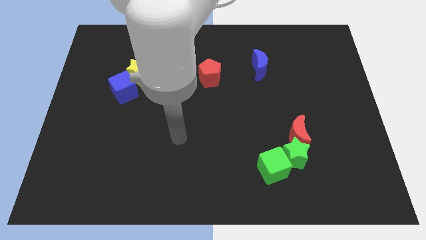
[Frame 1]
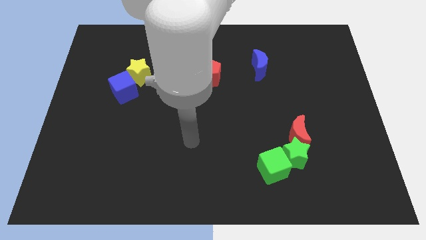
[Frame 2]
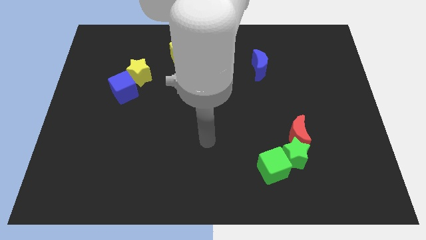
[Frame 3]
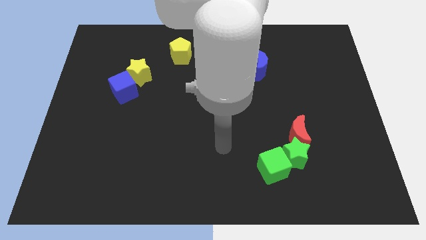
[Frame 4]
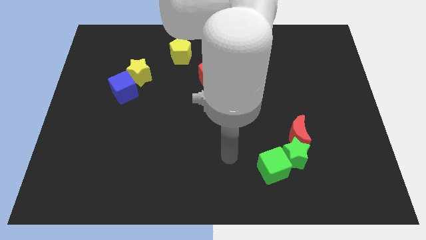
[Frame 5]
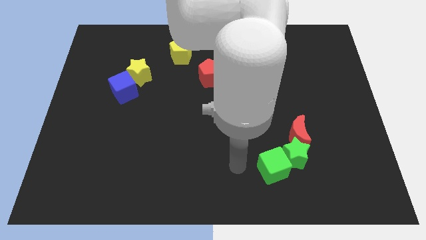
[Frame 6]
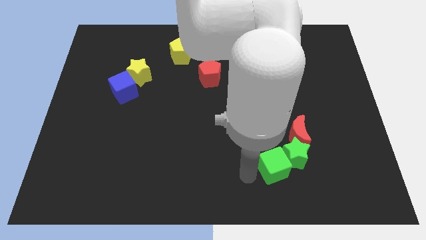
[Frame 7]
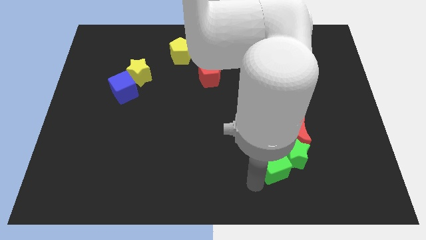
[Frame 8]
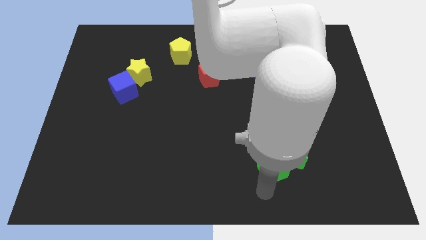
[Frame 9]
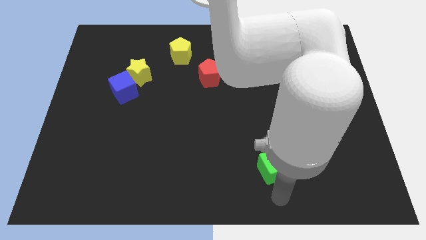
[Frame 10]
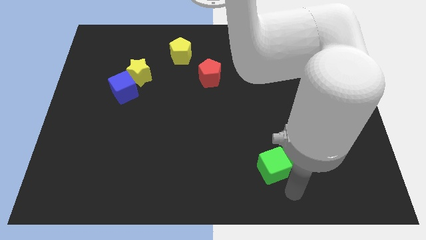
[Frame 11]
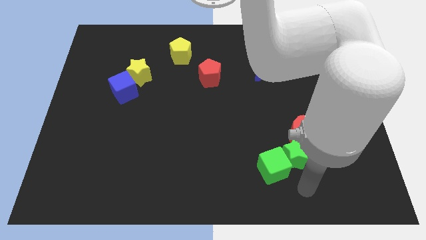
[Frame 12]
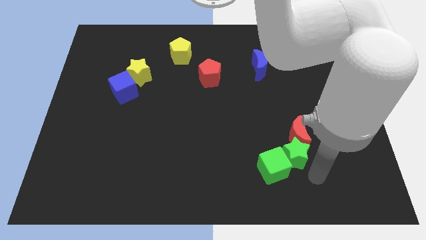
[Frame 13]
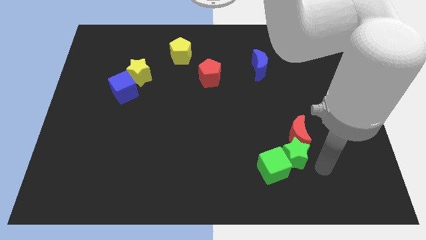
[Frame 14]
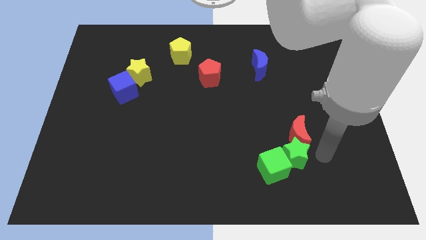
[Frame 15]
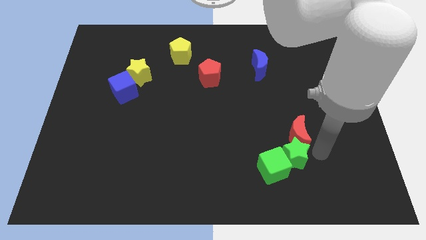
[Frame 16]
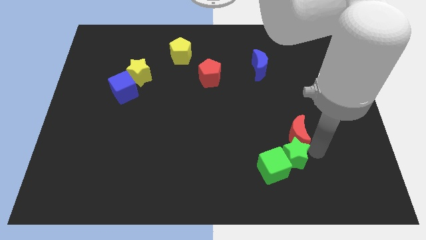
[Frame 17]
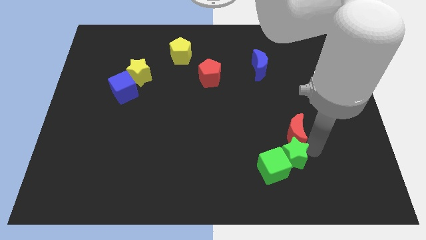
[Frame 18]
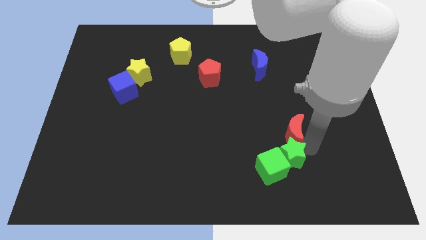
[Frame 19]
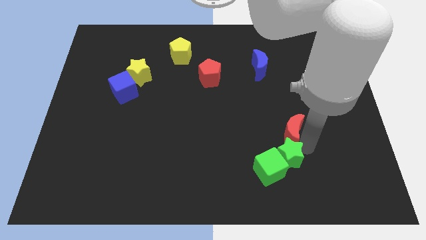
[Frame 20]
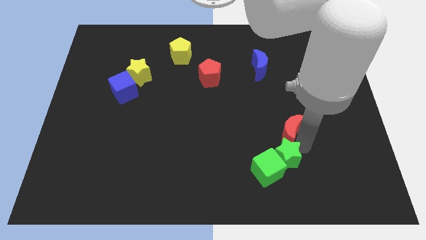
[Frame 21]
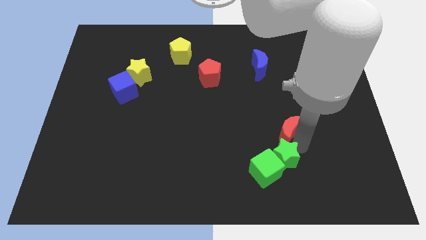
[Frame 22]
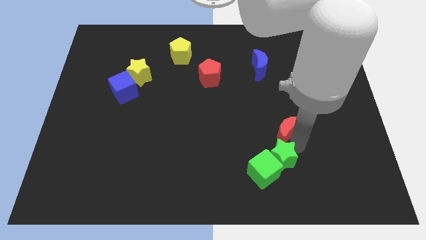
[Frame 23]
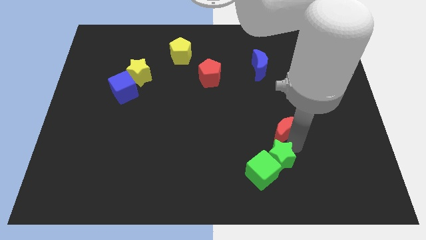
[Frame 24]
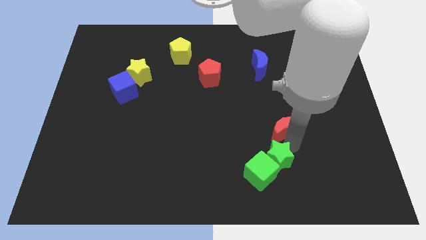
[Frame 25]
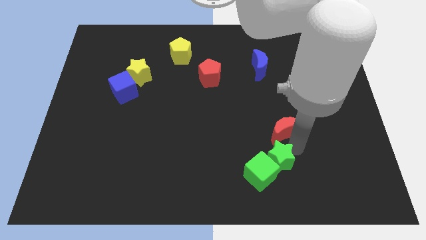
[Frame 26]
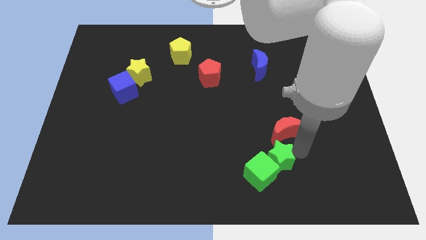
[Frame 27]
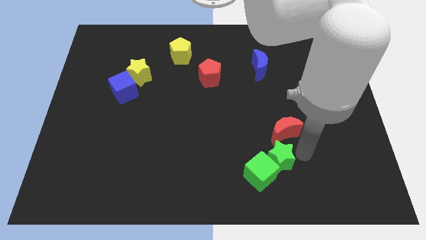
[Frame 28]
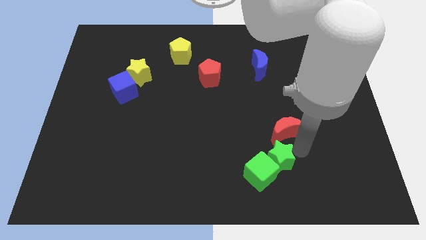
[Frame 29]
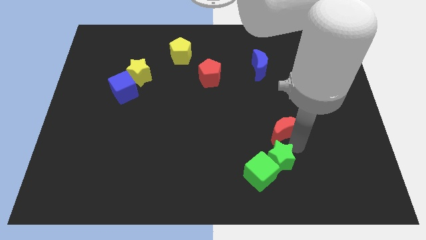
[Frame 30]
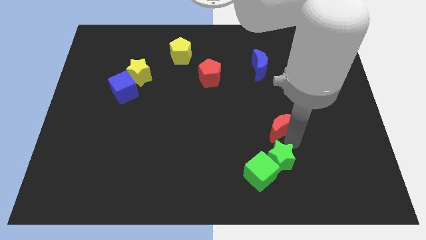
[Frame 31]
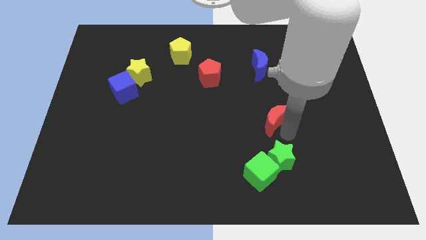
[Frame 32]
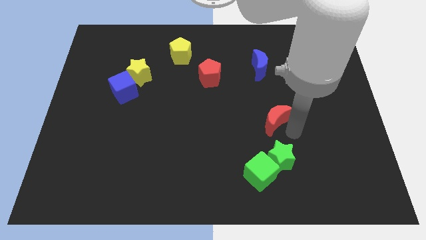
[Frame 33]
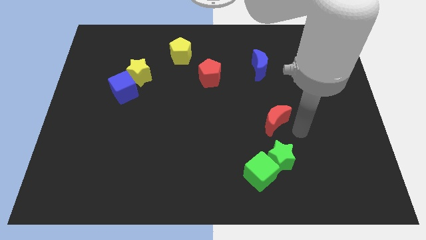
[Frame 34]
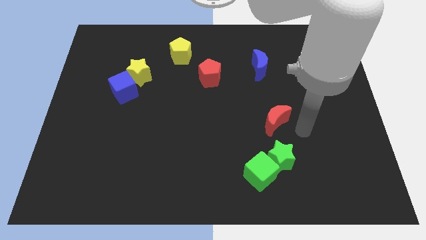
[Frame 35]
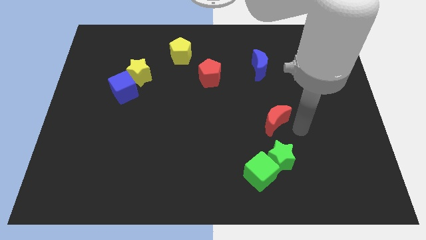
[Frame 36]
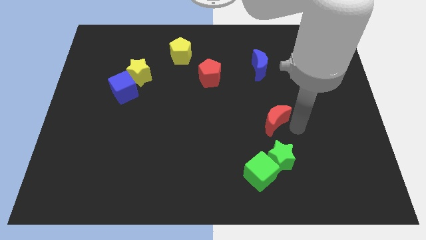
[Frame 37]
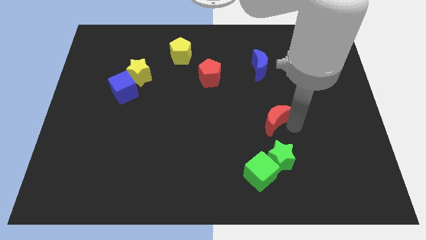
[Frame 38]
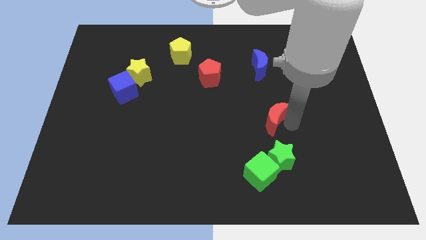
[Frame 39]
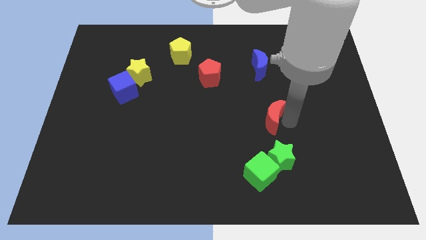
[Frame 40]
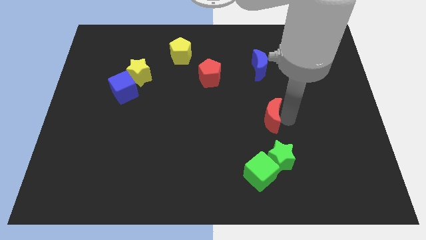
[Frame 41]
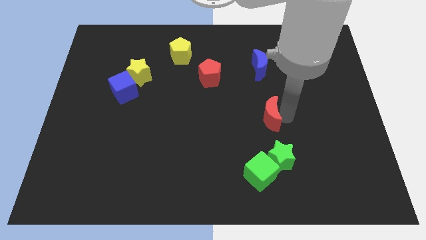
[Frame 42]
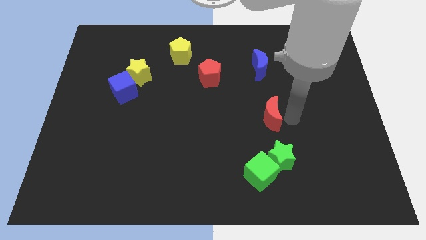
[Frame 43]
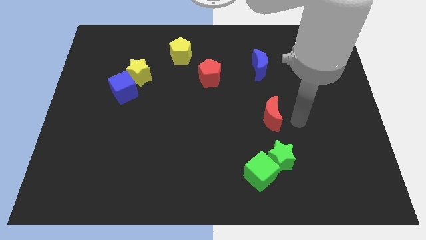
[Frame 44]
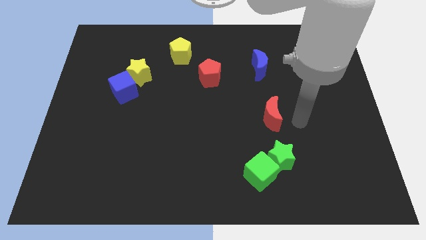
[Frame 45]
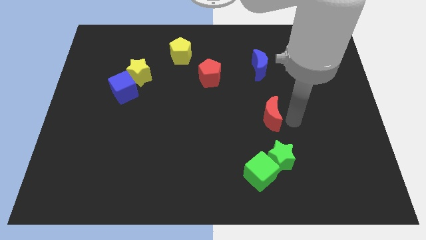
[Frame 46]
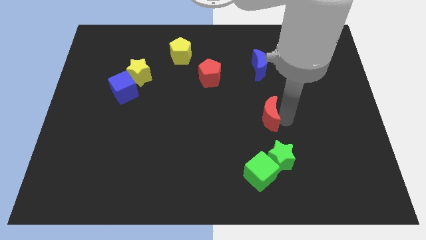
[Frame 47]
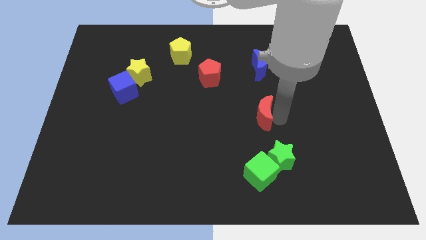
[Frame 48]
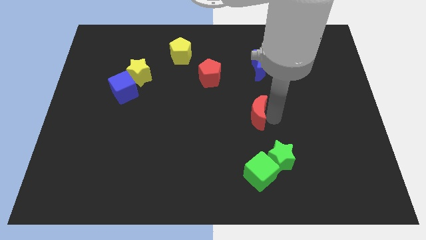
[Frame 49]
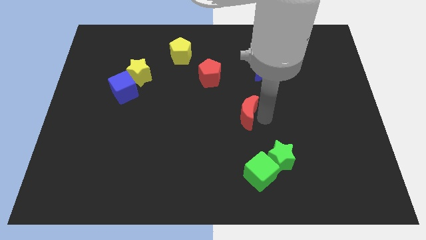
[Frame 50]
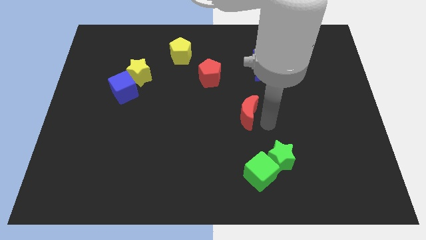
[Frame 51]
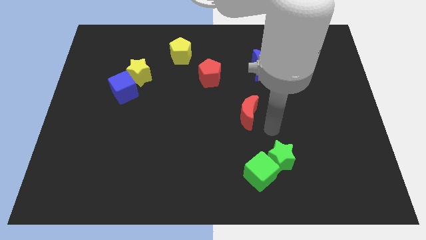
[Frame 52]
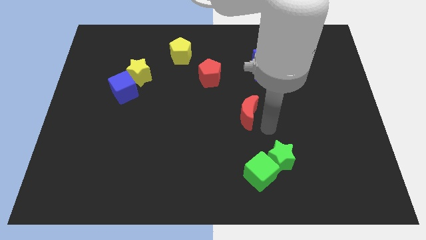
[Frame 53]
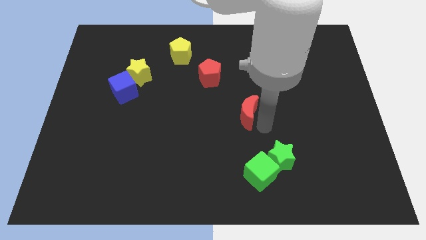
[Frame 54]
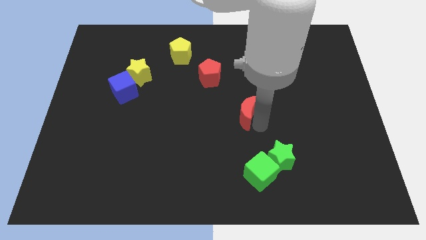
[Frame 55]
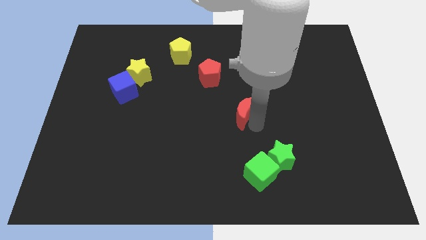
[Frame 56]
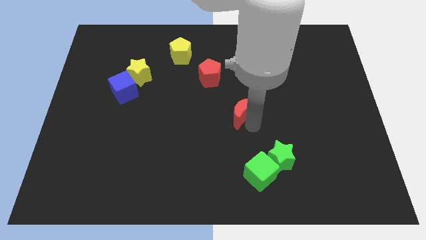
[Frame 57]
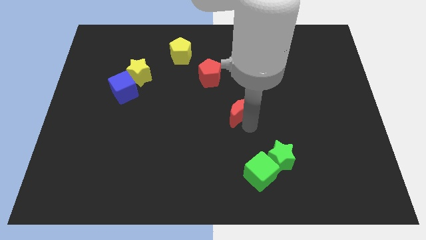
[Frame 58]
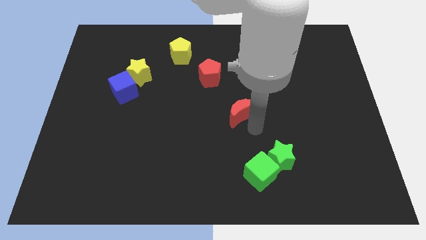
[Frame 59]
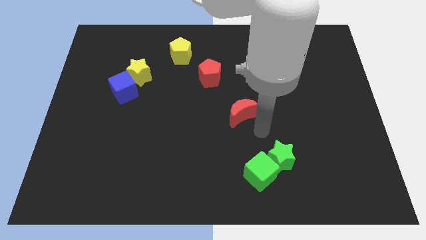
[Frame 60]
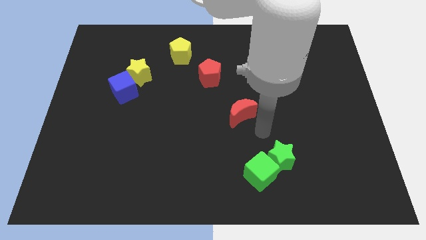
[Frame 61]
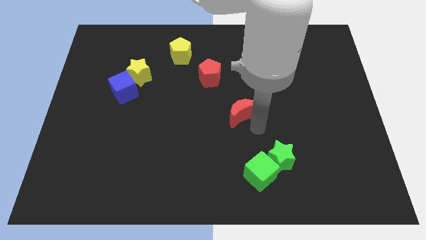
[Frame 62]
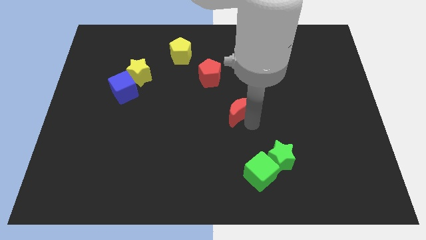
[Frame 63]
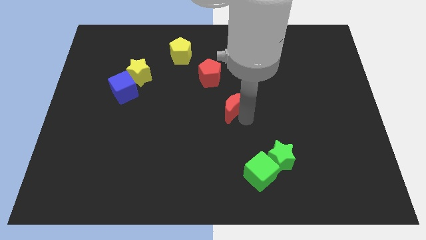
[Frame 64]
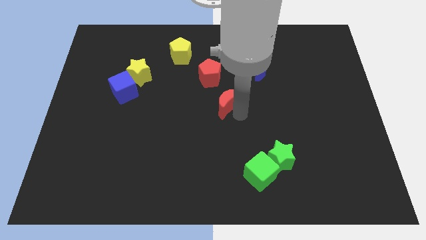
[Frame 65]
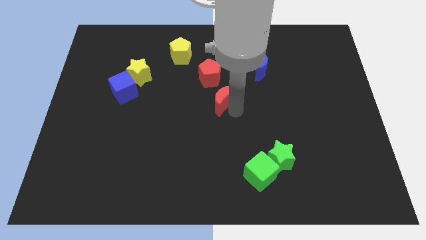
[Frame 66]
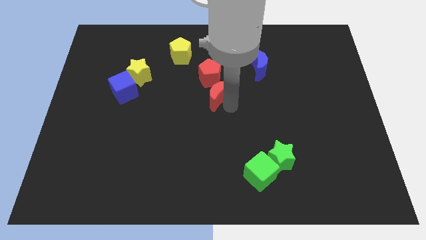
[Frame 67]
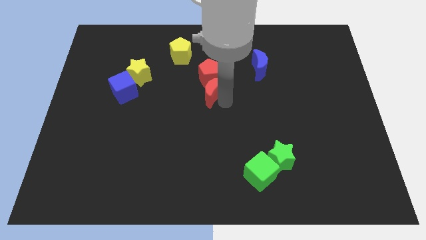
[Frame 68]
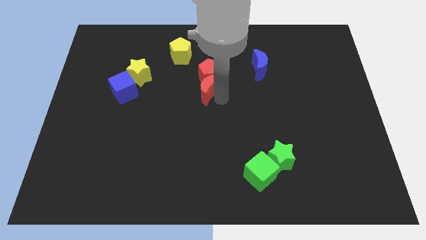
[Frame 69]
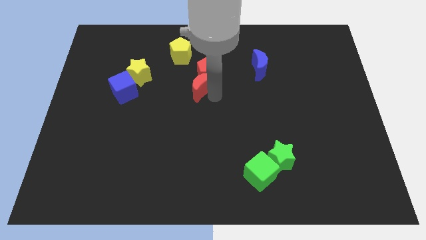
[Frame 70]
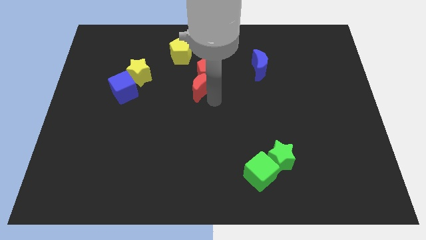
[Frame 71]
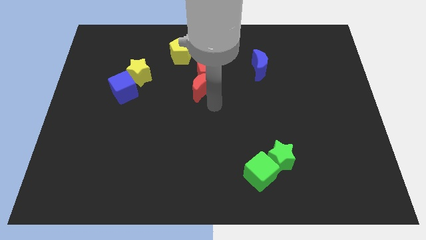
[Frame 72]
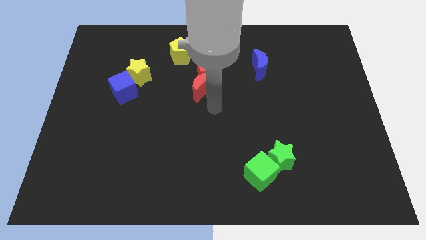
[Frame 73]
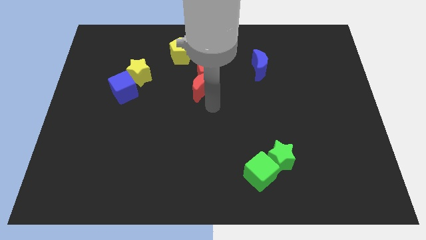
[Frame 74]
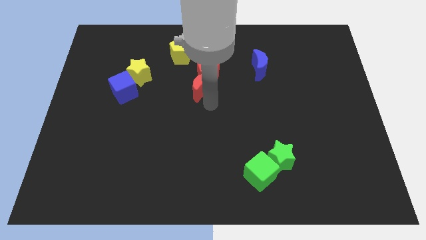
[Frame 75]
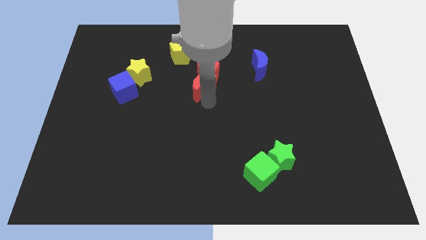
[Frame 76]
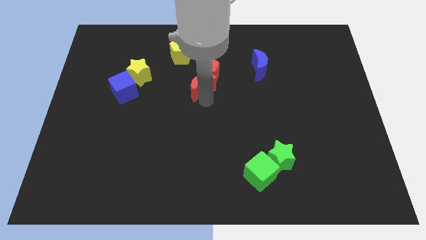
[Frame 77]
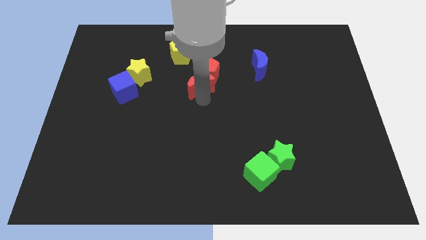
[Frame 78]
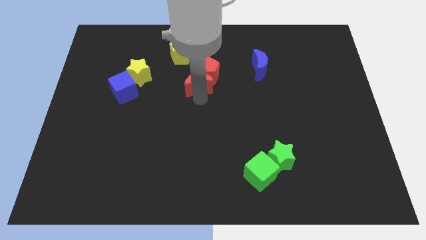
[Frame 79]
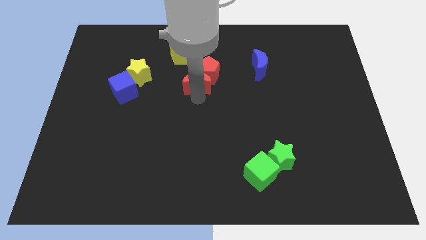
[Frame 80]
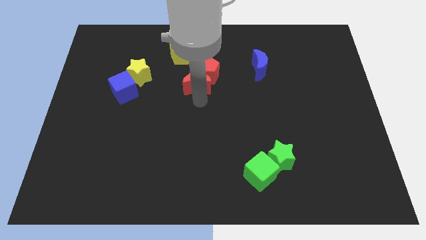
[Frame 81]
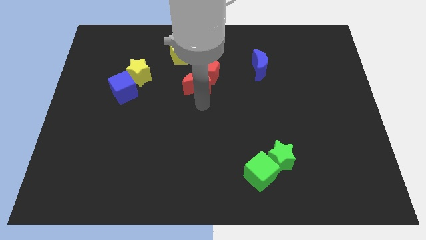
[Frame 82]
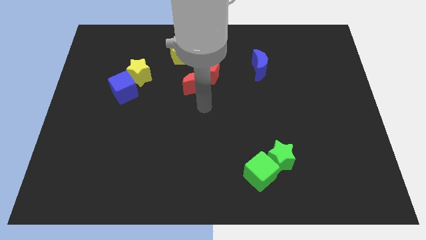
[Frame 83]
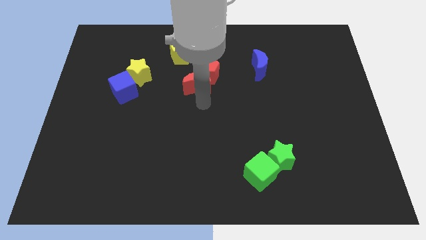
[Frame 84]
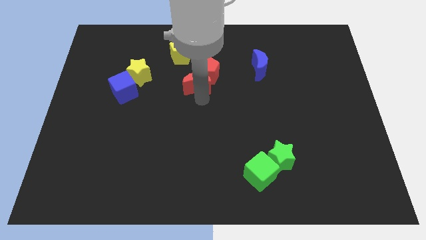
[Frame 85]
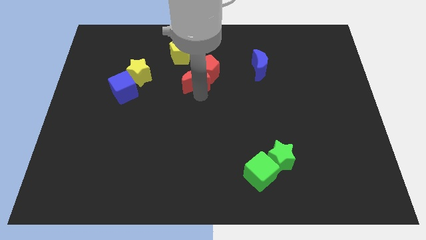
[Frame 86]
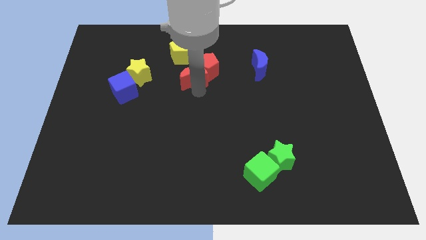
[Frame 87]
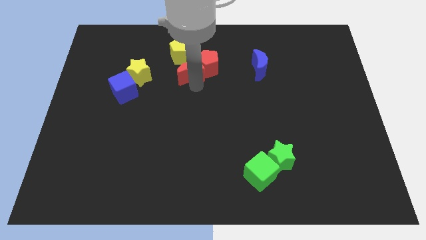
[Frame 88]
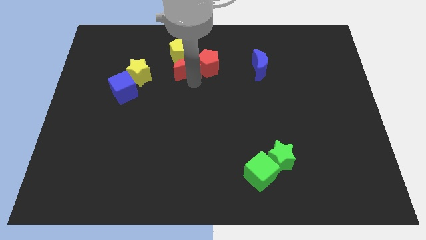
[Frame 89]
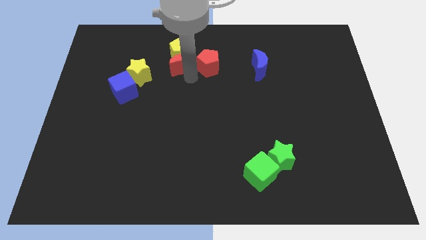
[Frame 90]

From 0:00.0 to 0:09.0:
push the red moon close to the yellow pentagon
